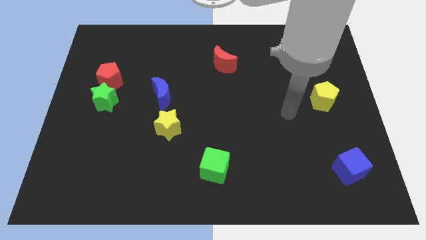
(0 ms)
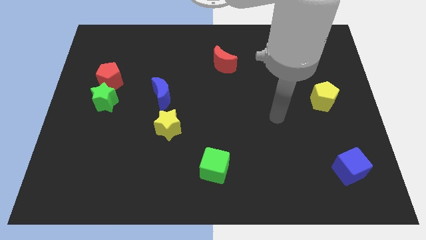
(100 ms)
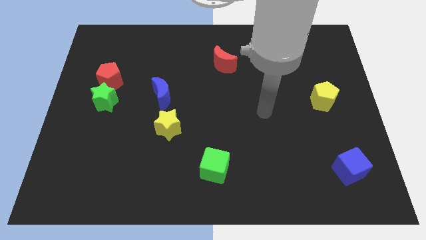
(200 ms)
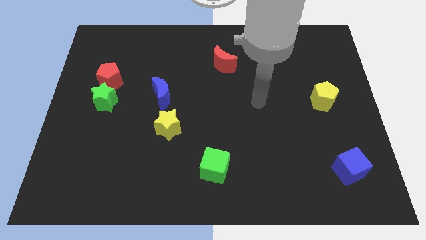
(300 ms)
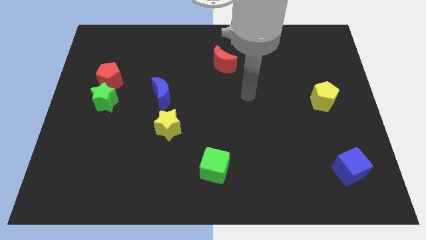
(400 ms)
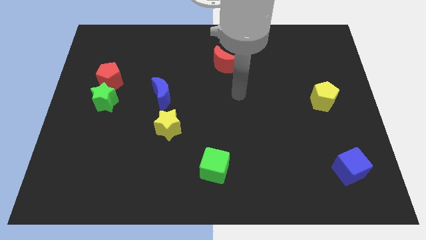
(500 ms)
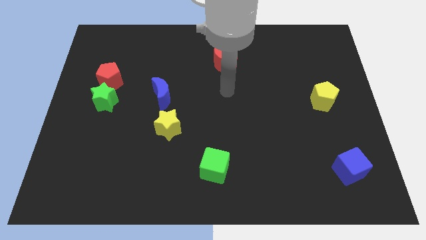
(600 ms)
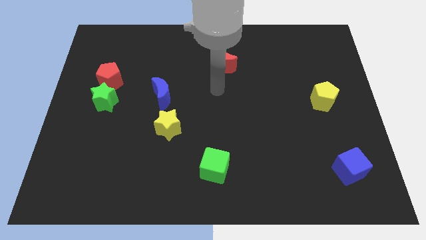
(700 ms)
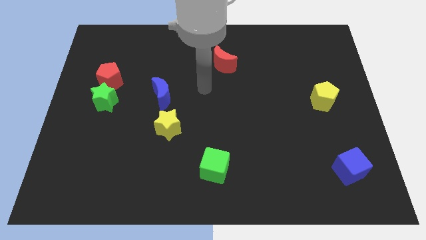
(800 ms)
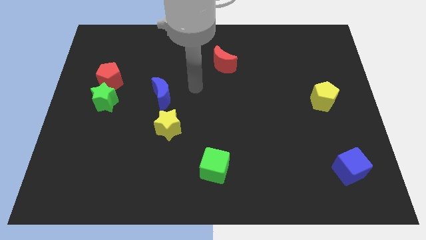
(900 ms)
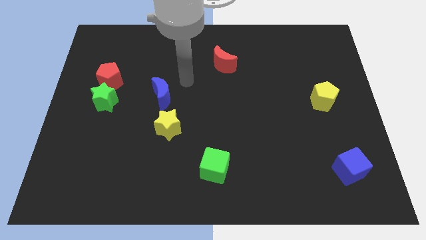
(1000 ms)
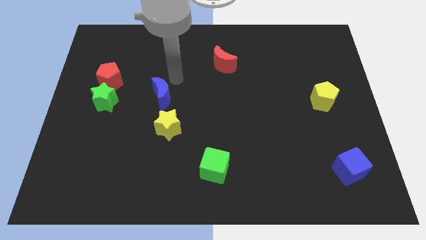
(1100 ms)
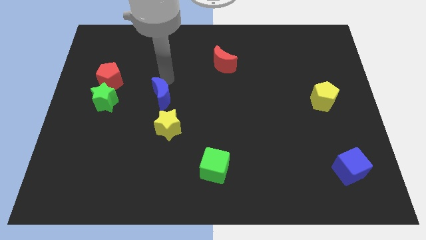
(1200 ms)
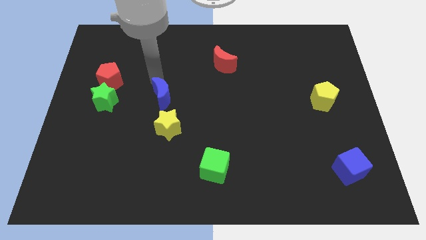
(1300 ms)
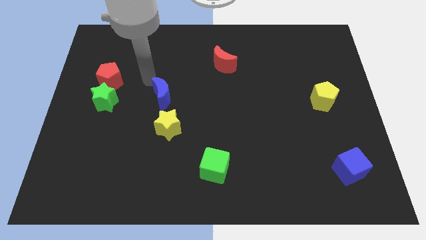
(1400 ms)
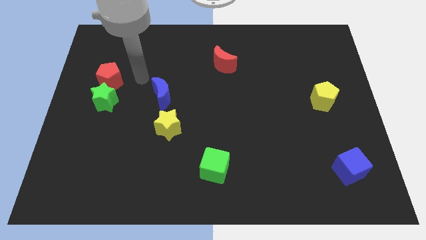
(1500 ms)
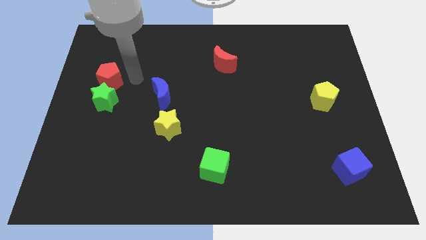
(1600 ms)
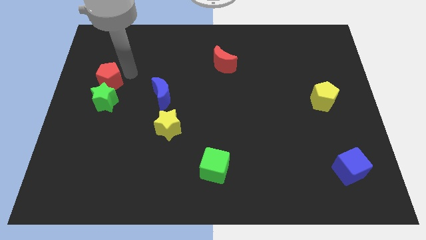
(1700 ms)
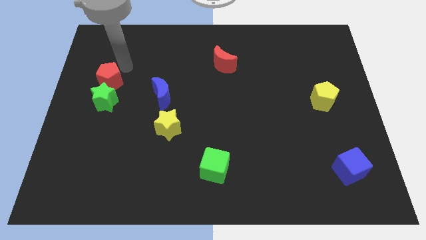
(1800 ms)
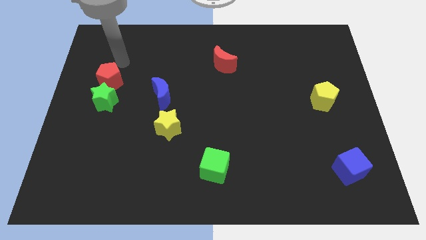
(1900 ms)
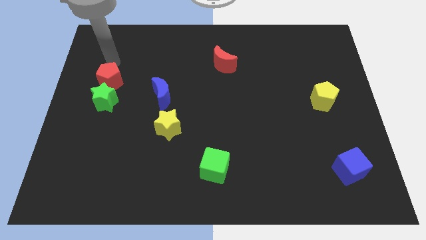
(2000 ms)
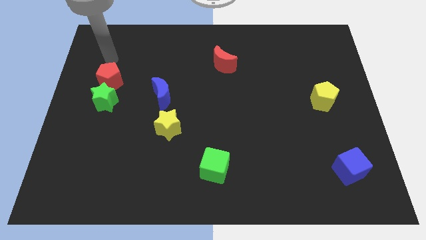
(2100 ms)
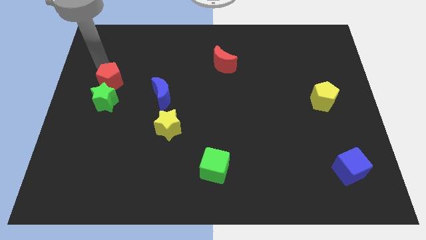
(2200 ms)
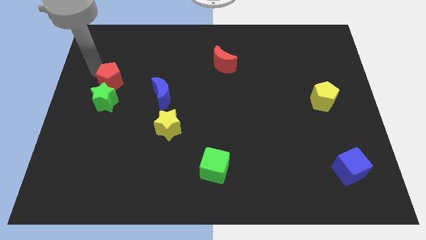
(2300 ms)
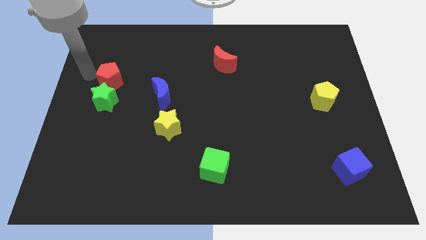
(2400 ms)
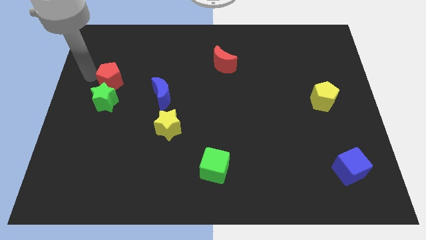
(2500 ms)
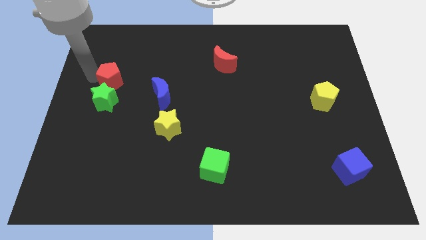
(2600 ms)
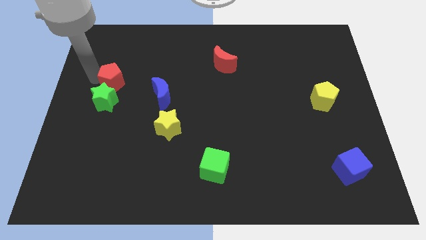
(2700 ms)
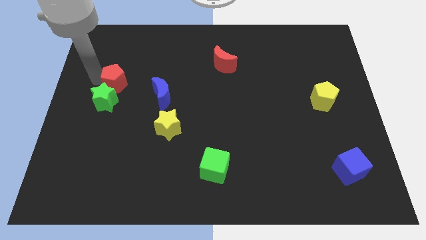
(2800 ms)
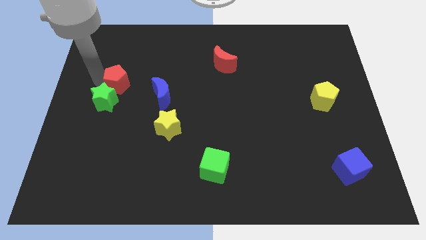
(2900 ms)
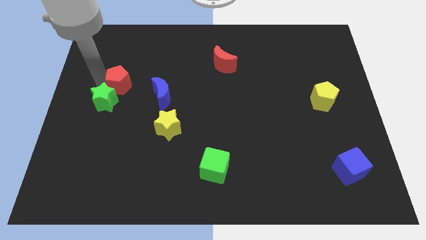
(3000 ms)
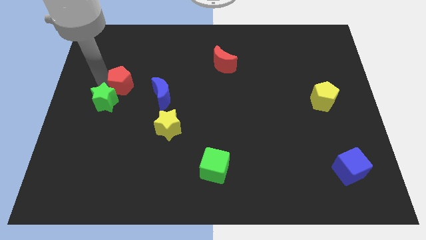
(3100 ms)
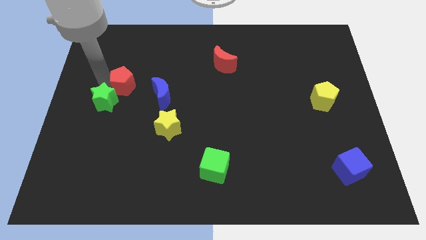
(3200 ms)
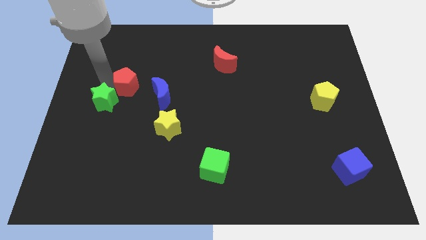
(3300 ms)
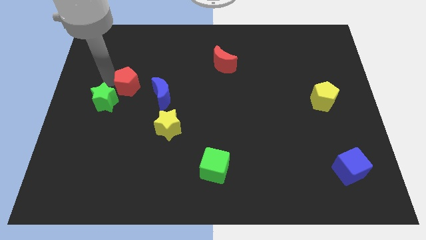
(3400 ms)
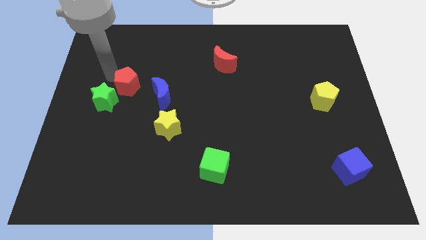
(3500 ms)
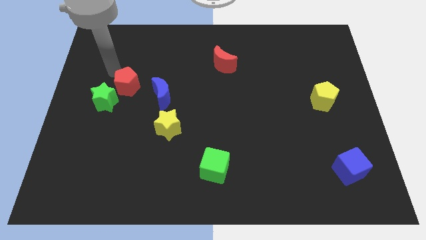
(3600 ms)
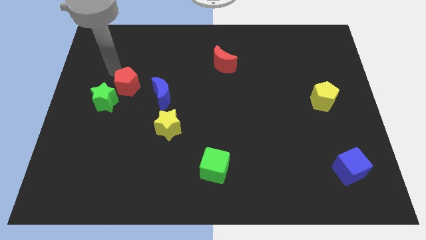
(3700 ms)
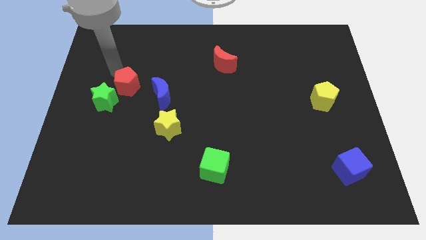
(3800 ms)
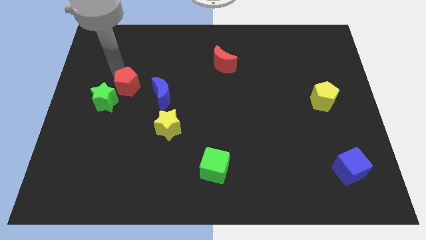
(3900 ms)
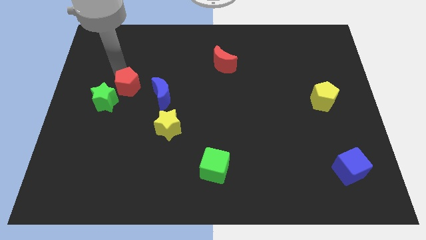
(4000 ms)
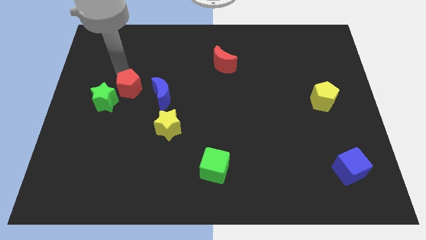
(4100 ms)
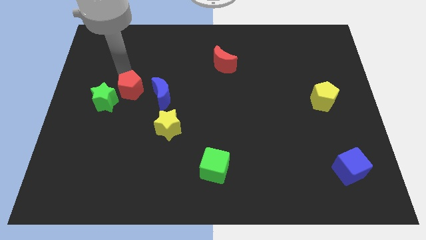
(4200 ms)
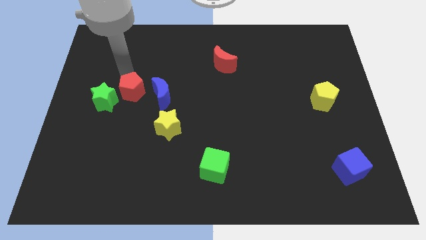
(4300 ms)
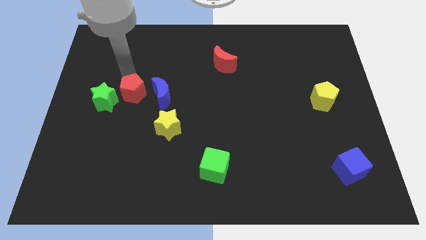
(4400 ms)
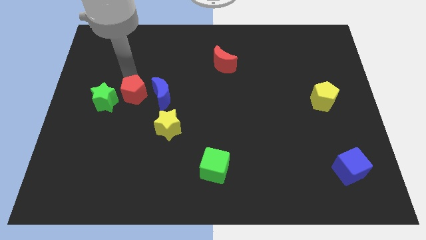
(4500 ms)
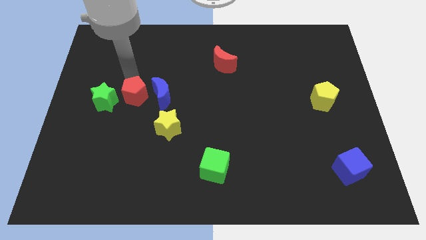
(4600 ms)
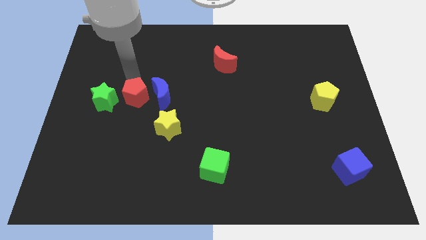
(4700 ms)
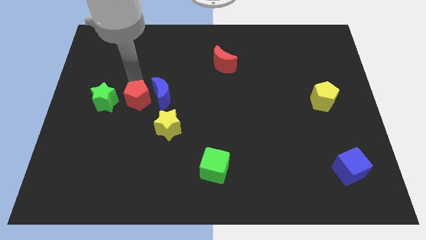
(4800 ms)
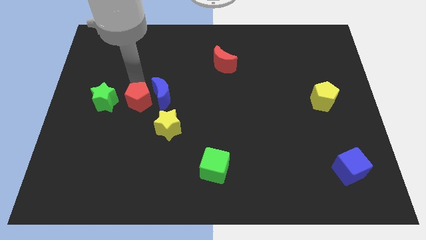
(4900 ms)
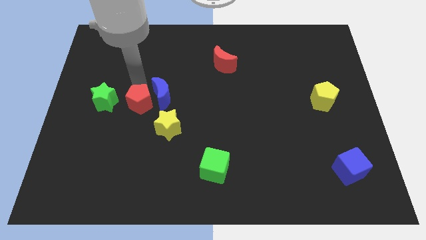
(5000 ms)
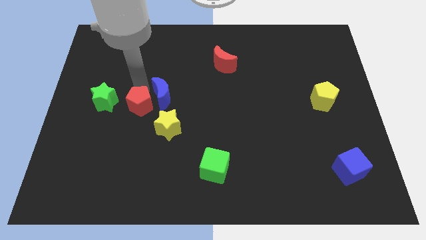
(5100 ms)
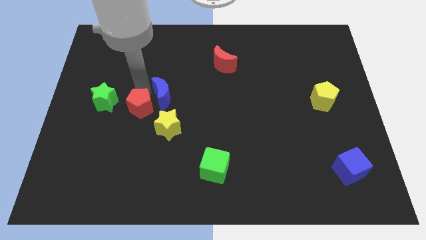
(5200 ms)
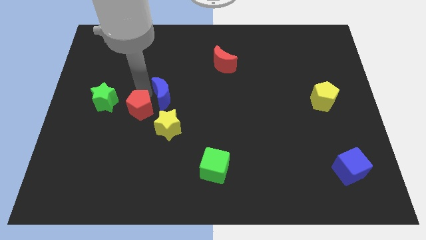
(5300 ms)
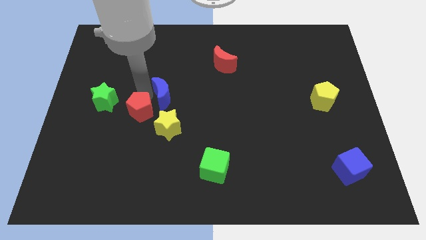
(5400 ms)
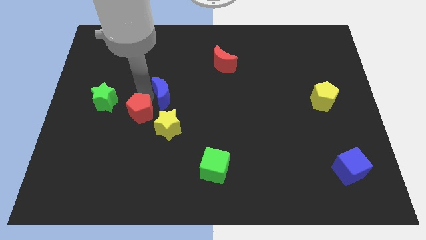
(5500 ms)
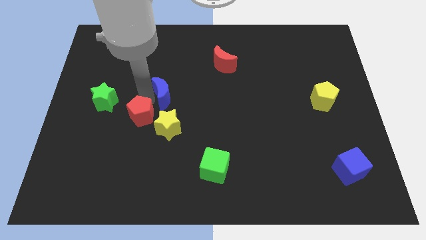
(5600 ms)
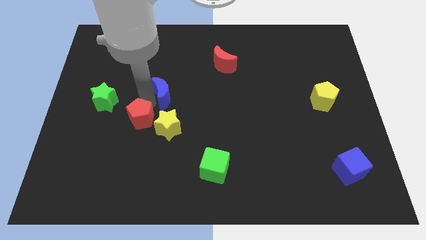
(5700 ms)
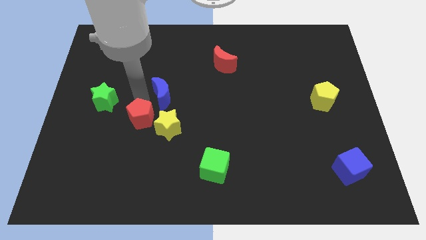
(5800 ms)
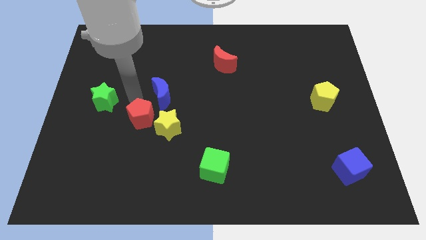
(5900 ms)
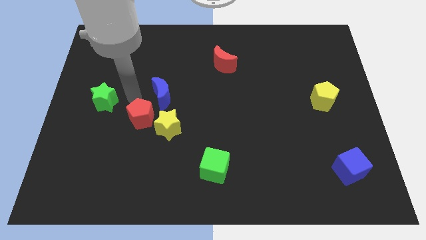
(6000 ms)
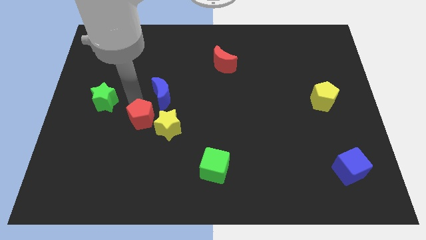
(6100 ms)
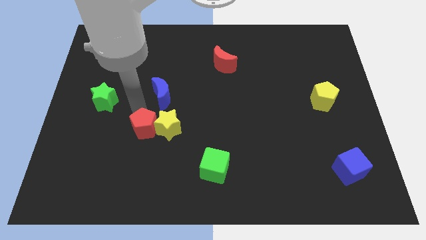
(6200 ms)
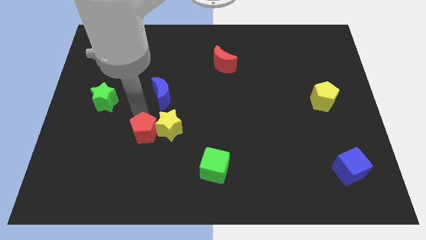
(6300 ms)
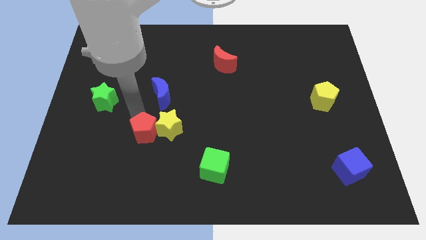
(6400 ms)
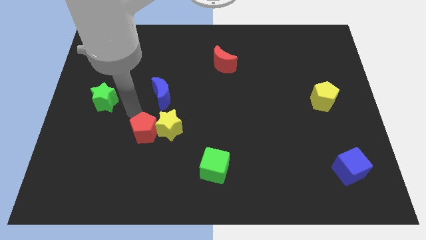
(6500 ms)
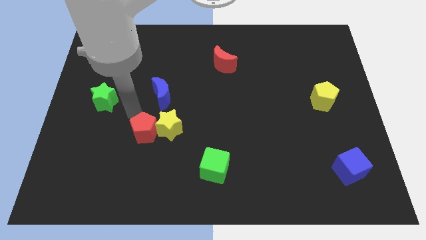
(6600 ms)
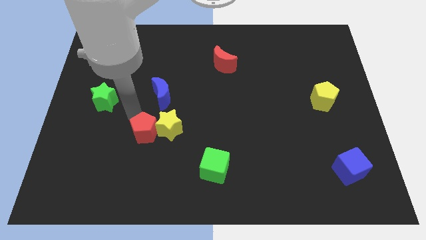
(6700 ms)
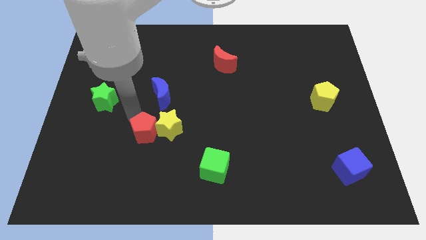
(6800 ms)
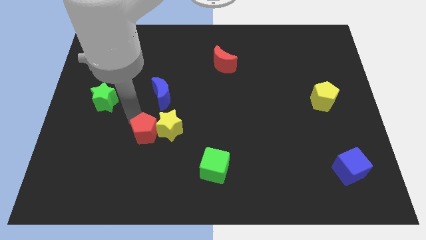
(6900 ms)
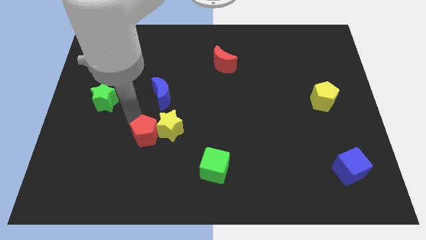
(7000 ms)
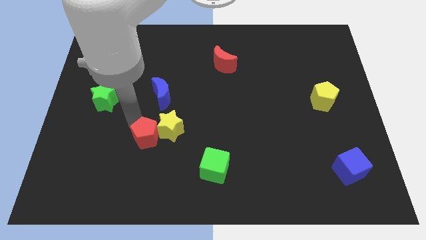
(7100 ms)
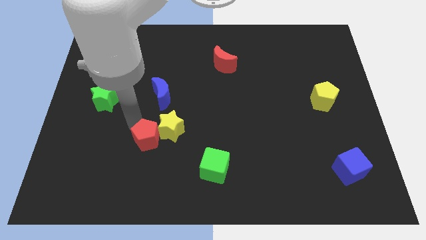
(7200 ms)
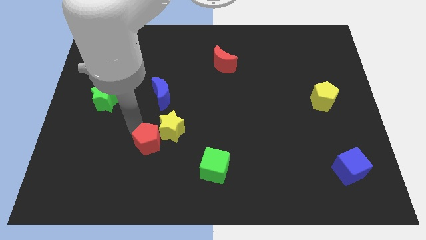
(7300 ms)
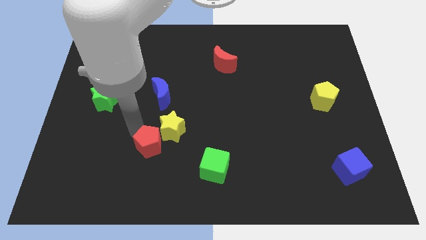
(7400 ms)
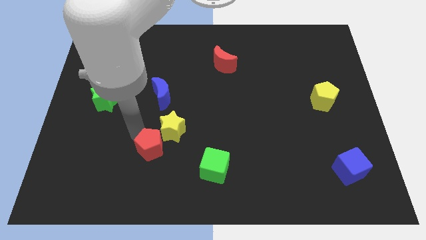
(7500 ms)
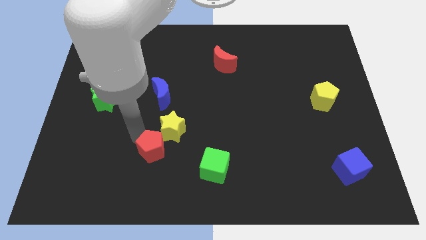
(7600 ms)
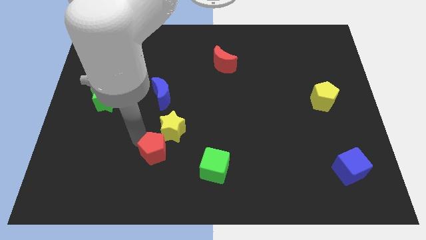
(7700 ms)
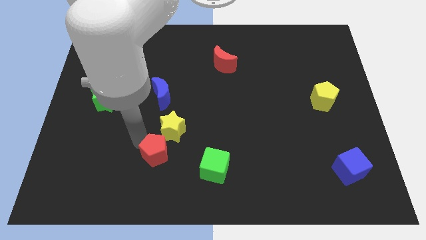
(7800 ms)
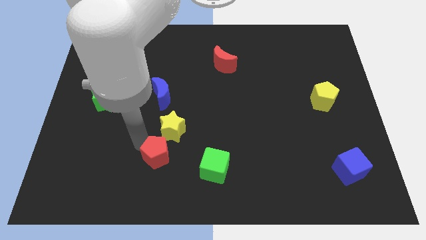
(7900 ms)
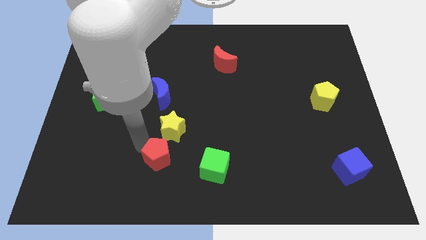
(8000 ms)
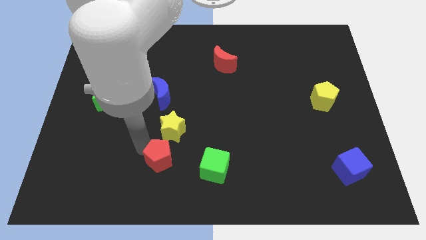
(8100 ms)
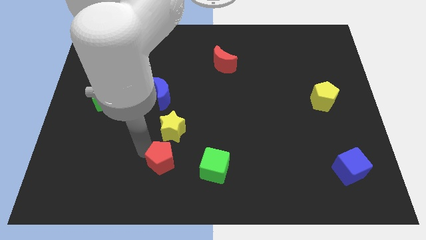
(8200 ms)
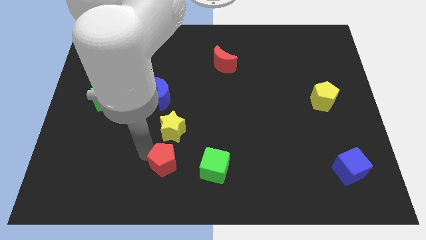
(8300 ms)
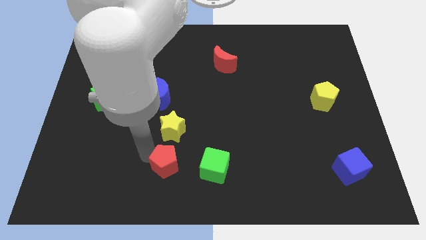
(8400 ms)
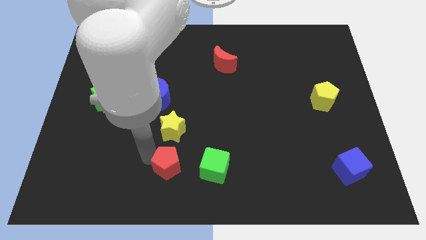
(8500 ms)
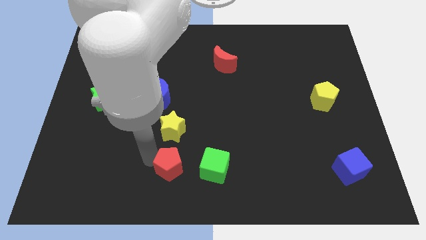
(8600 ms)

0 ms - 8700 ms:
put the red pentagon to the bottom side
